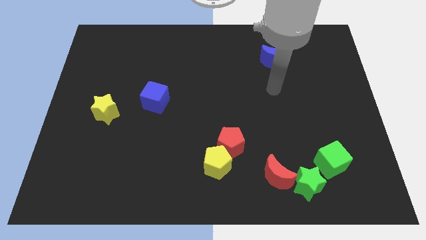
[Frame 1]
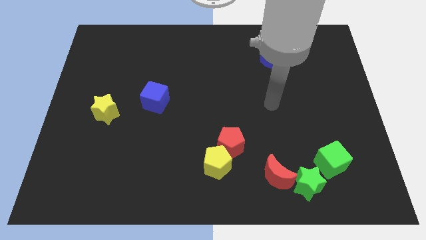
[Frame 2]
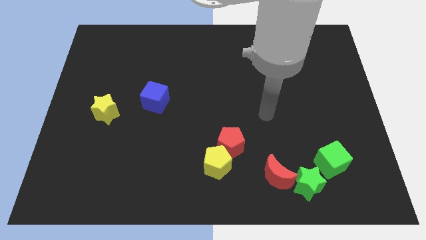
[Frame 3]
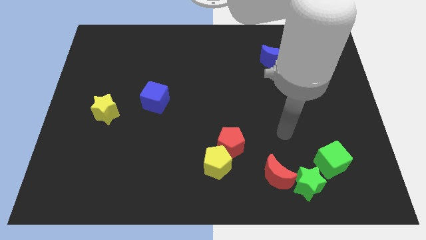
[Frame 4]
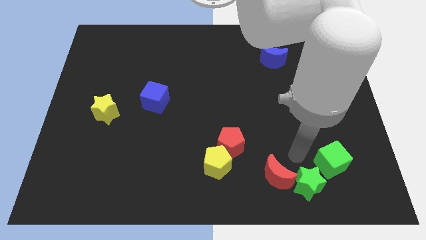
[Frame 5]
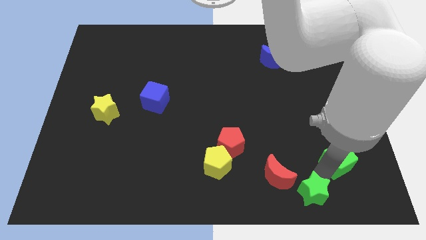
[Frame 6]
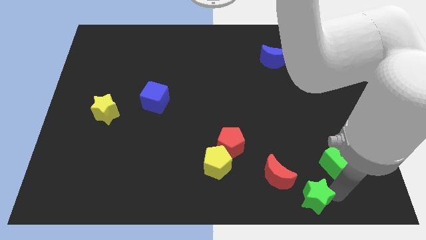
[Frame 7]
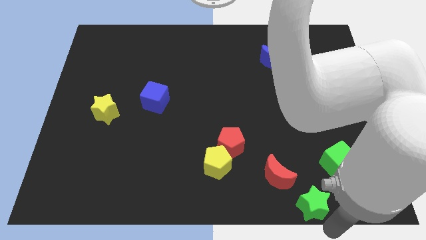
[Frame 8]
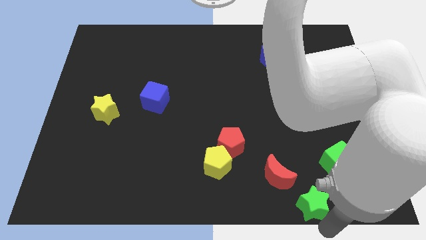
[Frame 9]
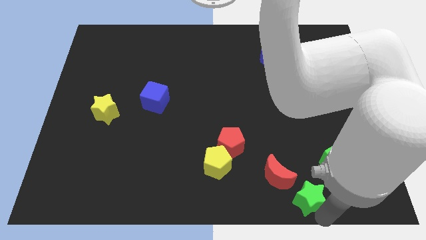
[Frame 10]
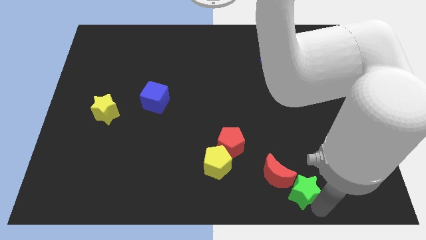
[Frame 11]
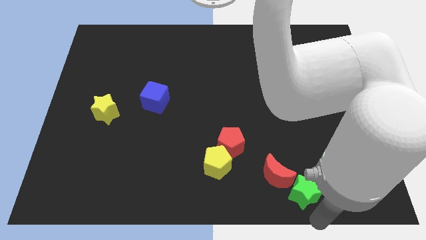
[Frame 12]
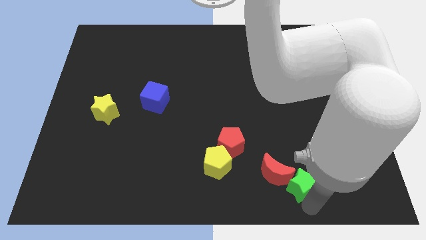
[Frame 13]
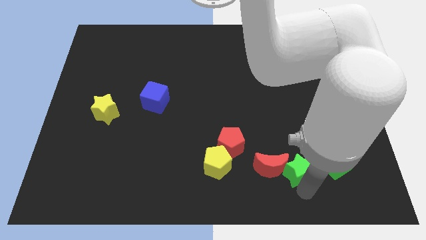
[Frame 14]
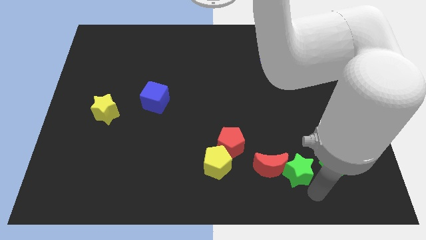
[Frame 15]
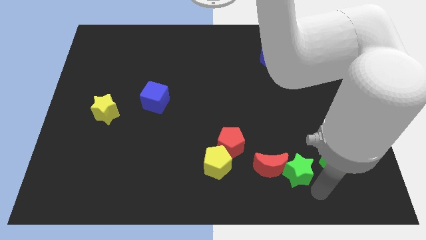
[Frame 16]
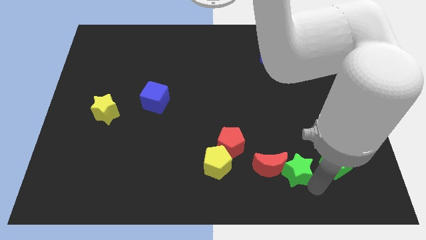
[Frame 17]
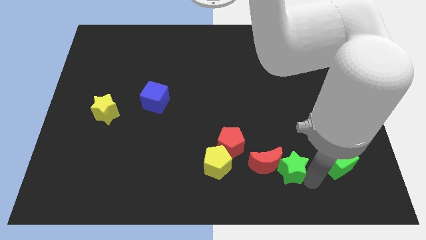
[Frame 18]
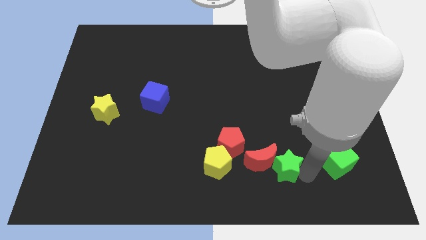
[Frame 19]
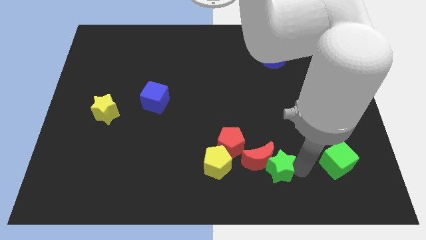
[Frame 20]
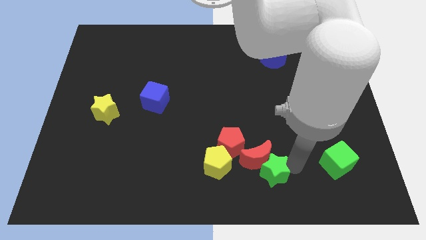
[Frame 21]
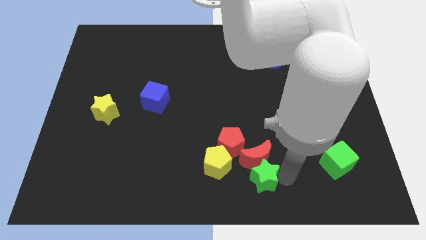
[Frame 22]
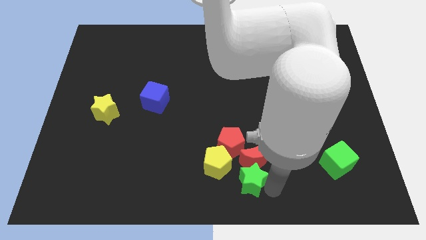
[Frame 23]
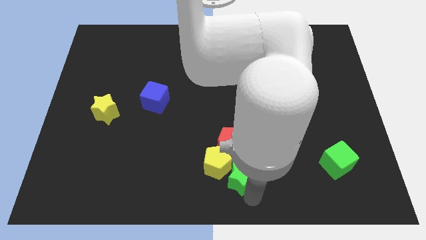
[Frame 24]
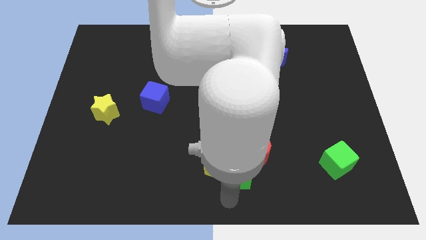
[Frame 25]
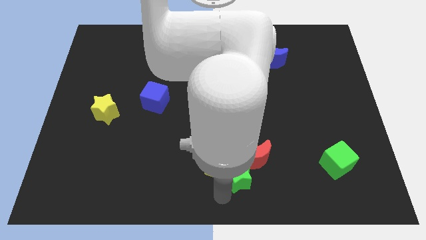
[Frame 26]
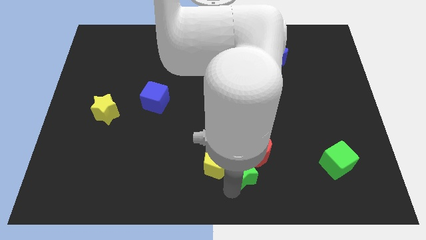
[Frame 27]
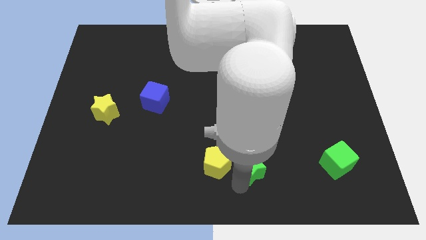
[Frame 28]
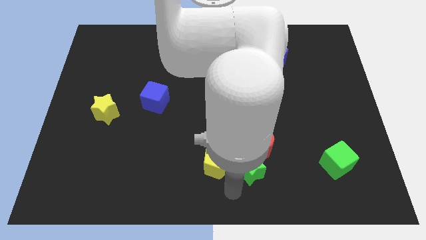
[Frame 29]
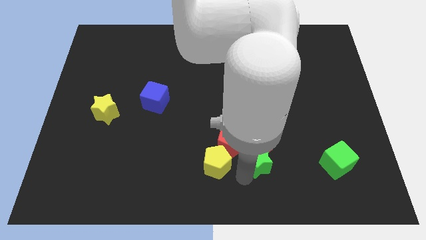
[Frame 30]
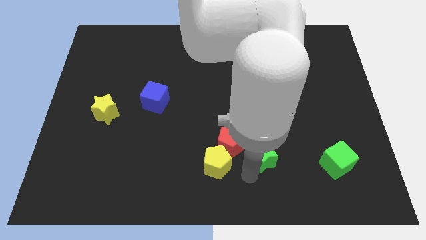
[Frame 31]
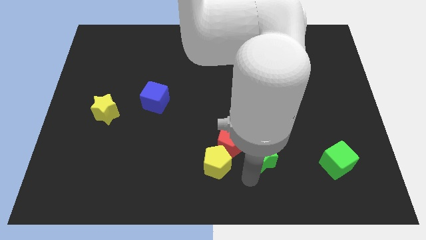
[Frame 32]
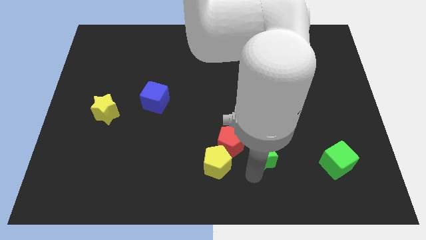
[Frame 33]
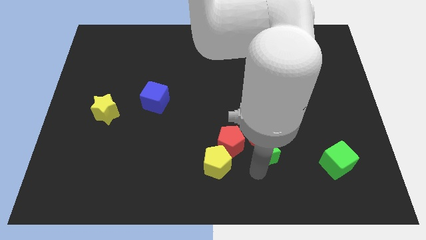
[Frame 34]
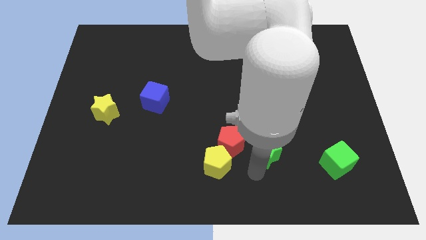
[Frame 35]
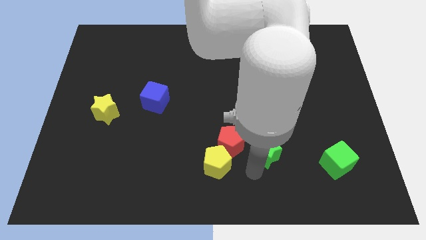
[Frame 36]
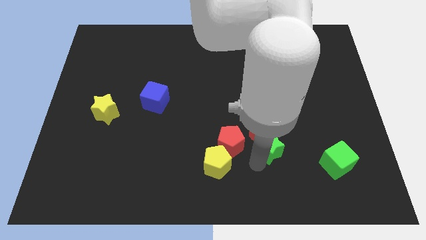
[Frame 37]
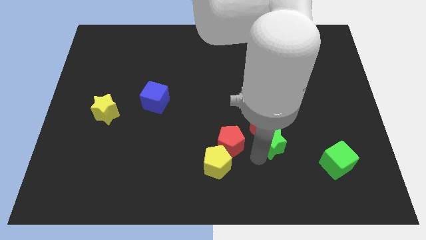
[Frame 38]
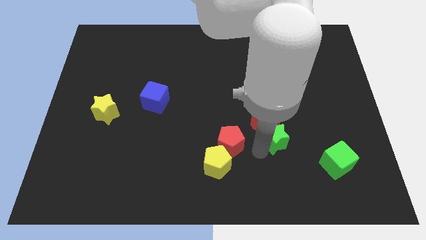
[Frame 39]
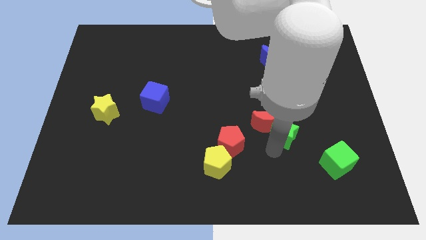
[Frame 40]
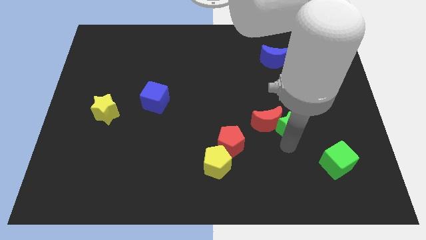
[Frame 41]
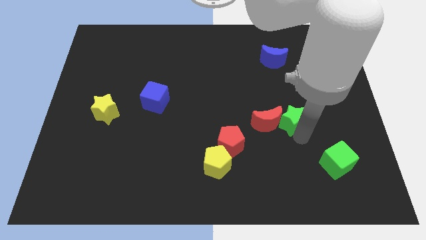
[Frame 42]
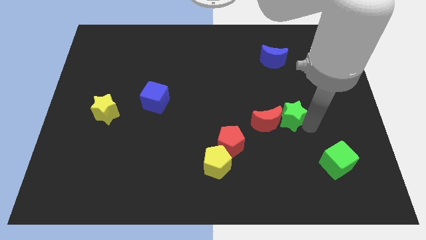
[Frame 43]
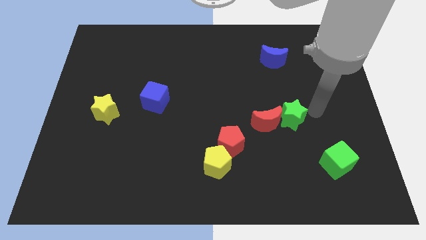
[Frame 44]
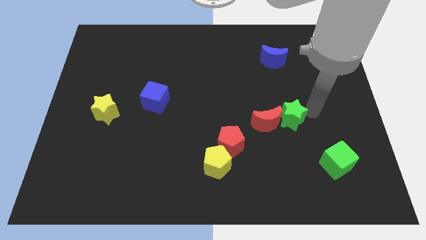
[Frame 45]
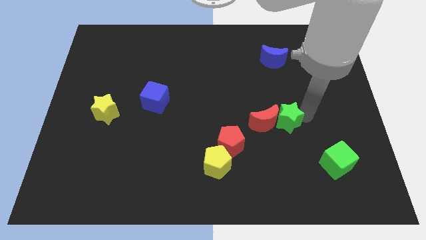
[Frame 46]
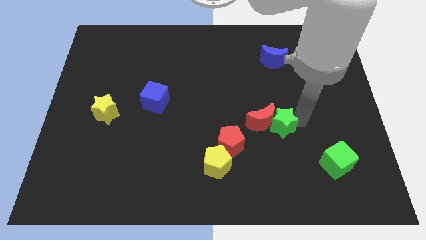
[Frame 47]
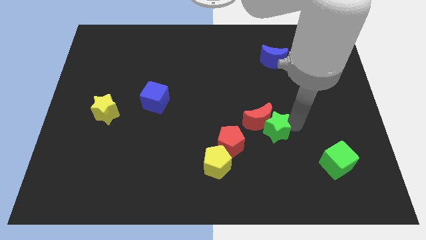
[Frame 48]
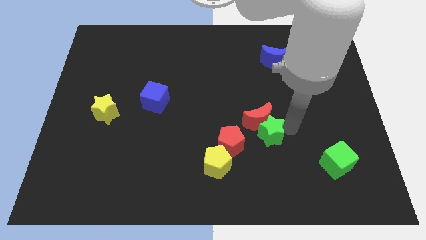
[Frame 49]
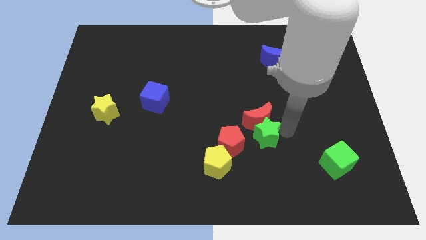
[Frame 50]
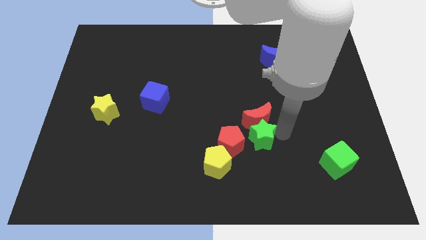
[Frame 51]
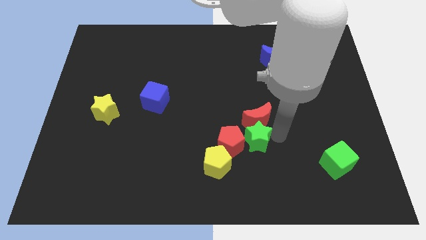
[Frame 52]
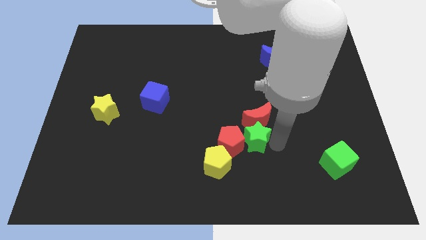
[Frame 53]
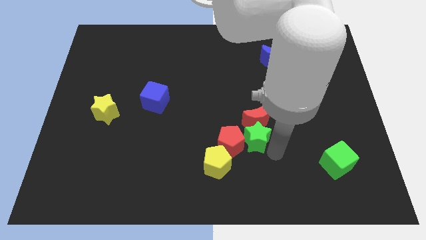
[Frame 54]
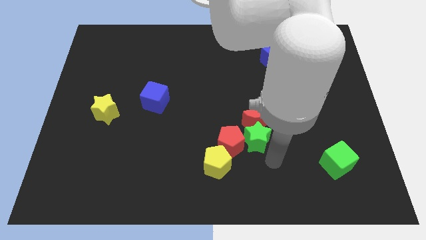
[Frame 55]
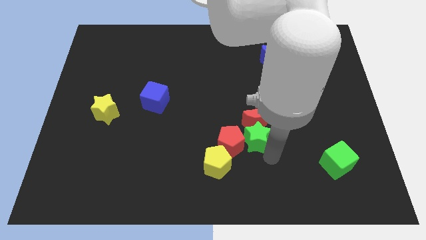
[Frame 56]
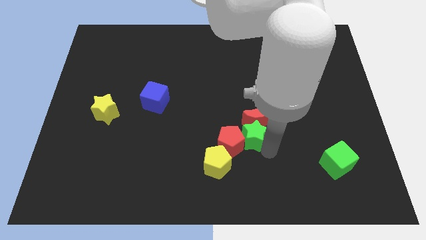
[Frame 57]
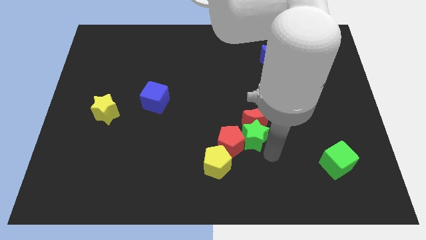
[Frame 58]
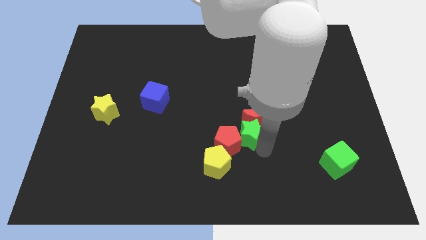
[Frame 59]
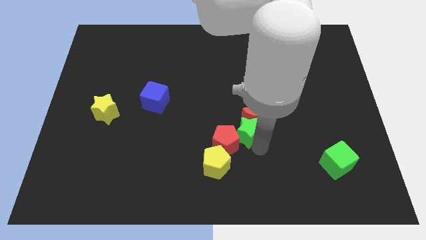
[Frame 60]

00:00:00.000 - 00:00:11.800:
move the green star to the middle of the board
